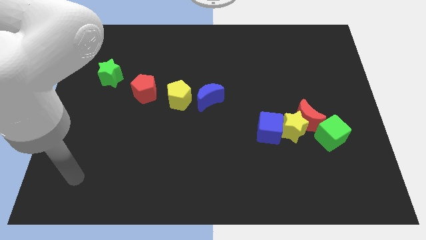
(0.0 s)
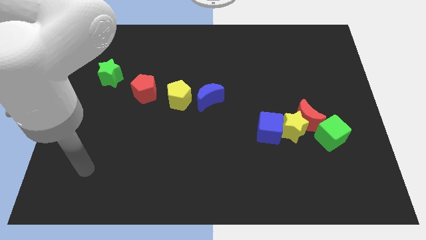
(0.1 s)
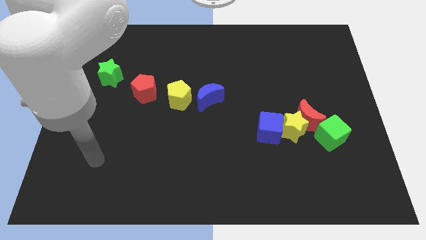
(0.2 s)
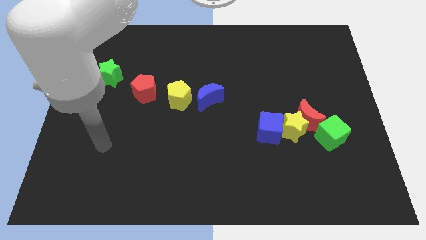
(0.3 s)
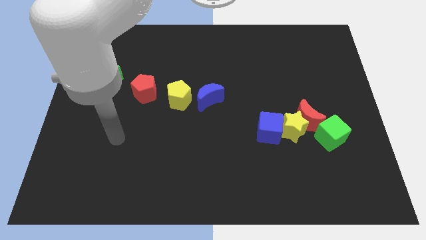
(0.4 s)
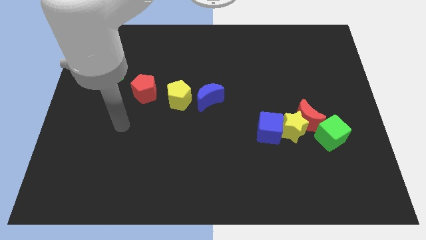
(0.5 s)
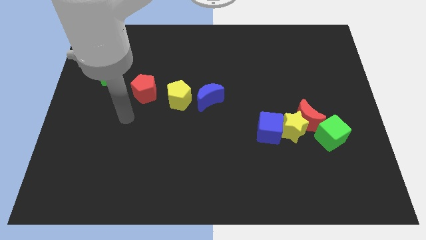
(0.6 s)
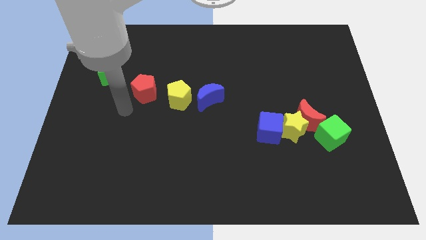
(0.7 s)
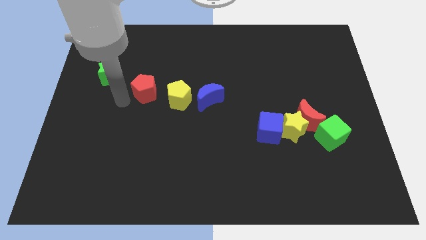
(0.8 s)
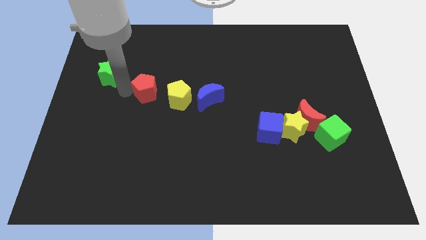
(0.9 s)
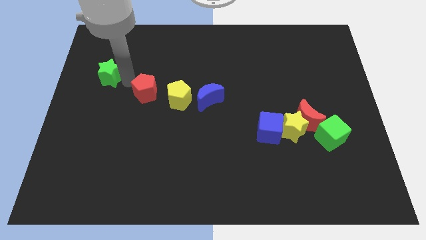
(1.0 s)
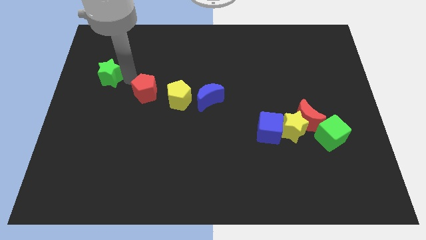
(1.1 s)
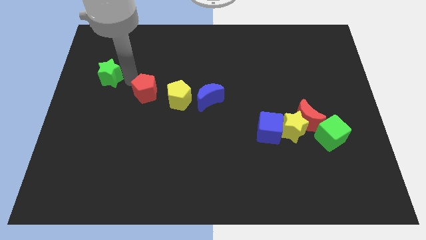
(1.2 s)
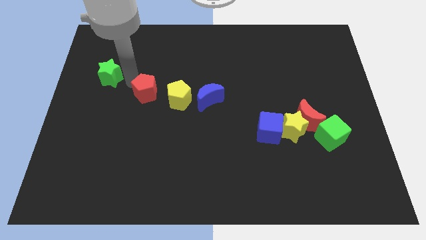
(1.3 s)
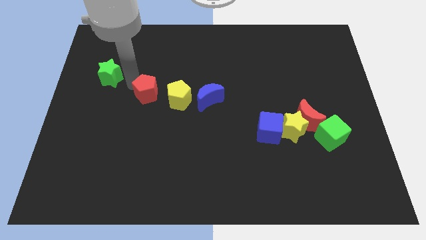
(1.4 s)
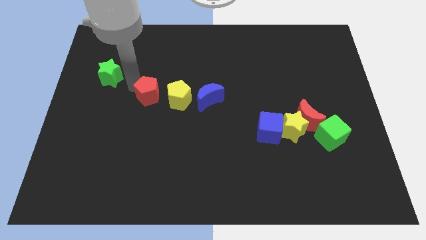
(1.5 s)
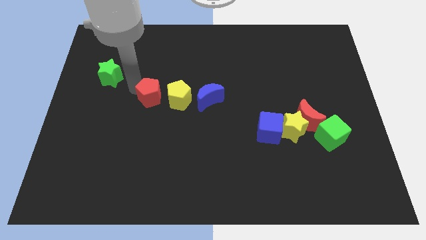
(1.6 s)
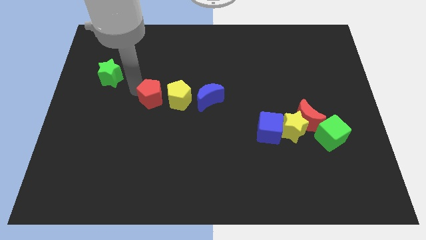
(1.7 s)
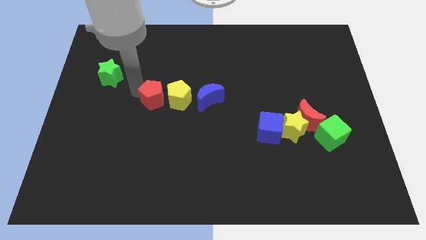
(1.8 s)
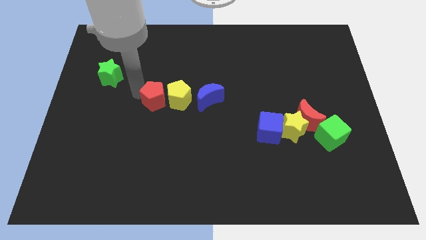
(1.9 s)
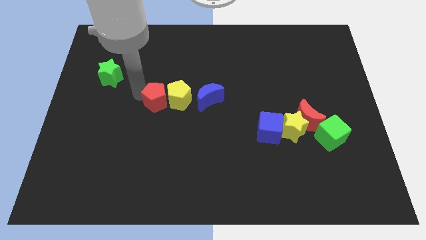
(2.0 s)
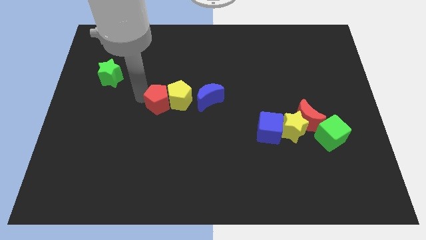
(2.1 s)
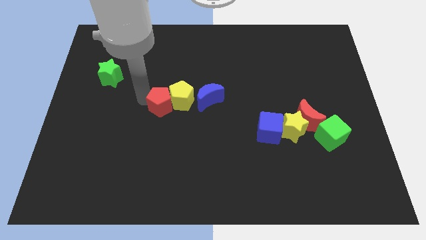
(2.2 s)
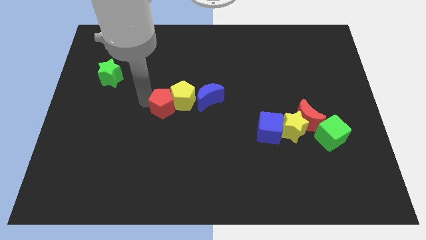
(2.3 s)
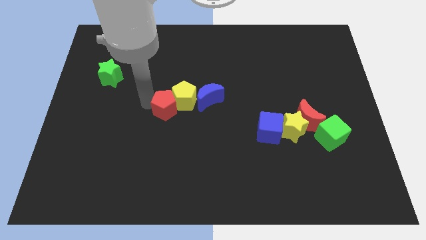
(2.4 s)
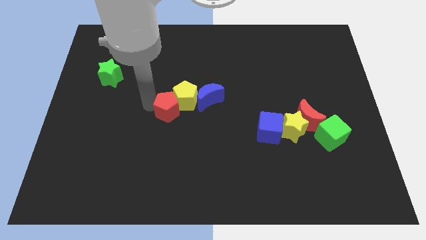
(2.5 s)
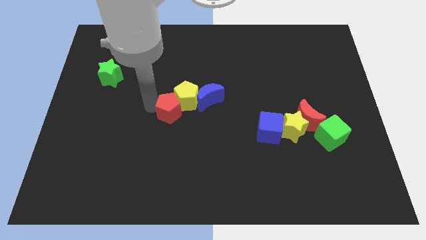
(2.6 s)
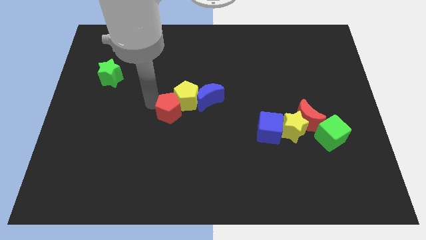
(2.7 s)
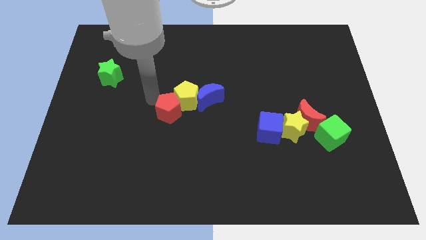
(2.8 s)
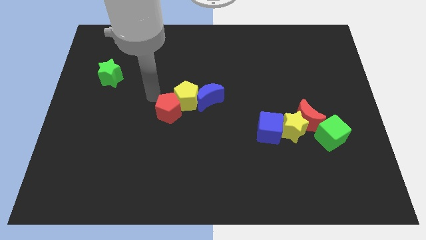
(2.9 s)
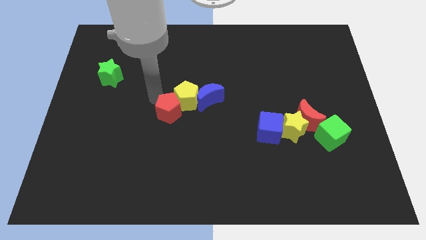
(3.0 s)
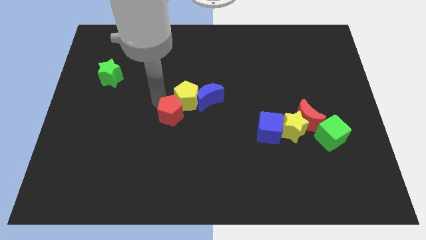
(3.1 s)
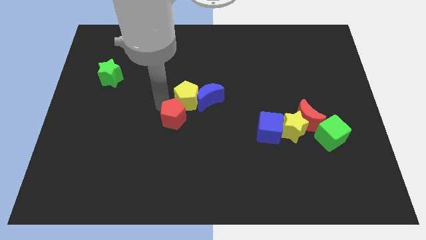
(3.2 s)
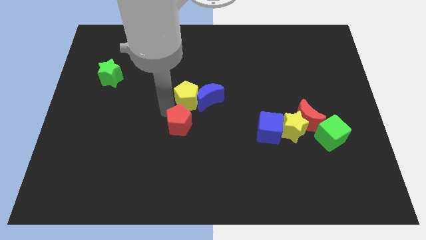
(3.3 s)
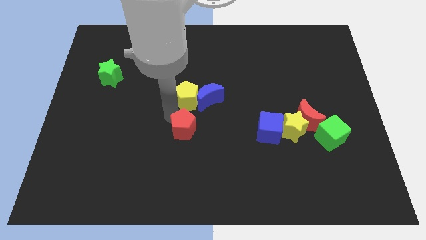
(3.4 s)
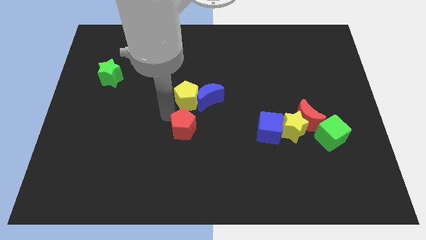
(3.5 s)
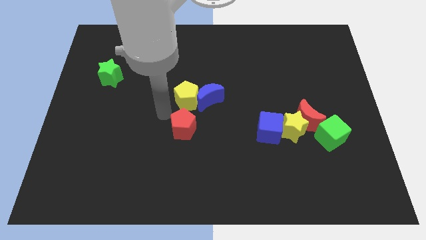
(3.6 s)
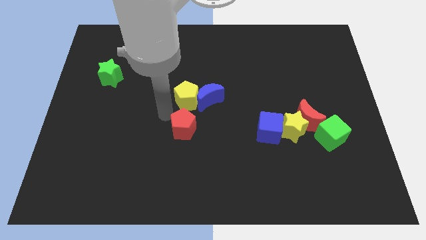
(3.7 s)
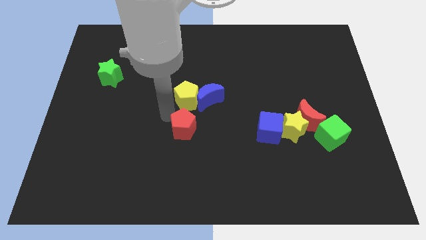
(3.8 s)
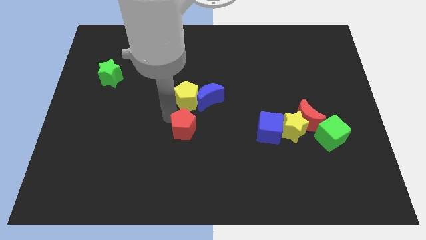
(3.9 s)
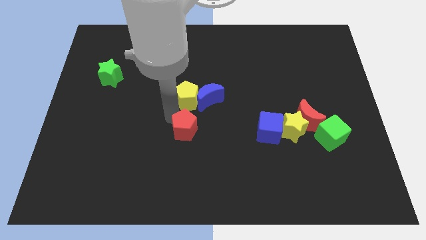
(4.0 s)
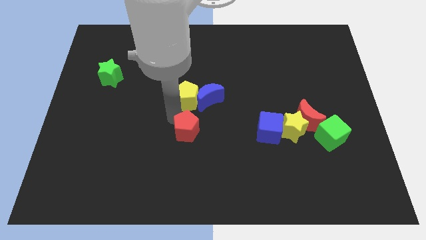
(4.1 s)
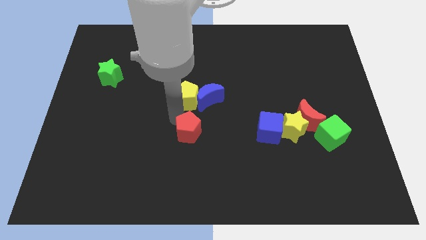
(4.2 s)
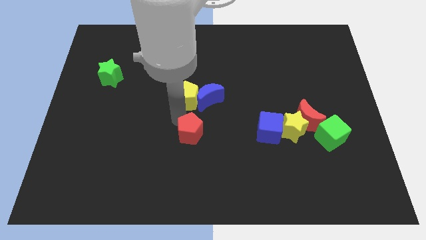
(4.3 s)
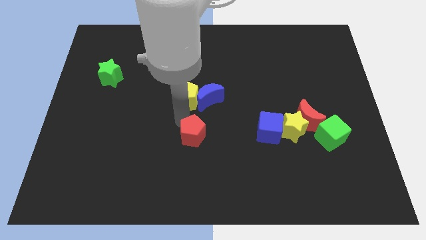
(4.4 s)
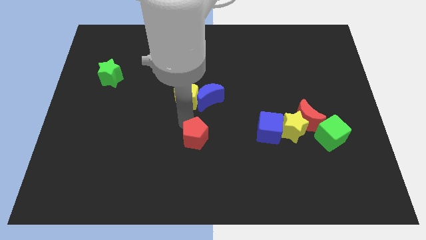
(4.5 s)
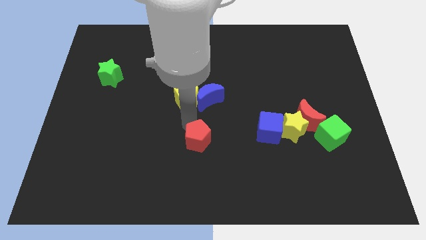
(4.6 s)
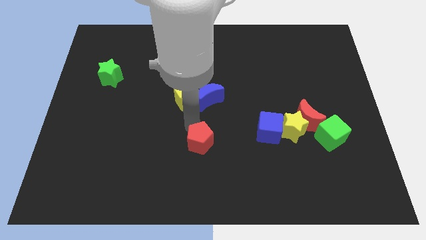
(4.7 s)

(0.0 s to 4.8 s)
move the red pentagon down and to the right diagonally

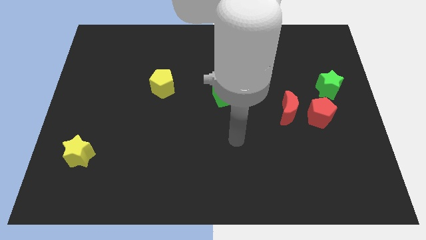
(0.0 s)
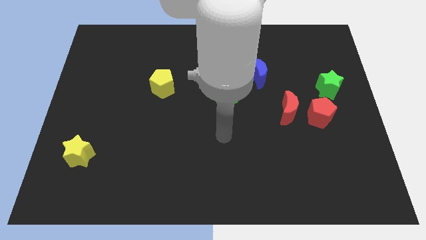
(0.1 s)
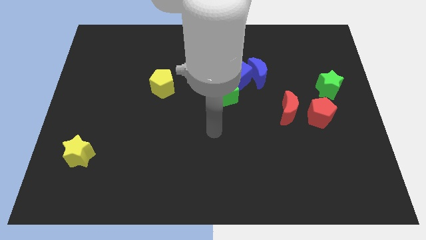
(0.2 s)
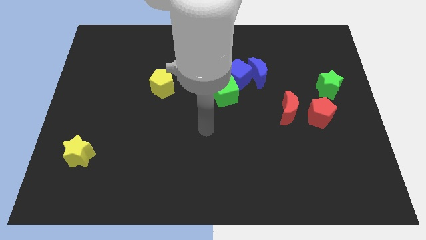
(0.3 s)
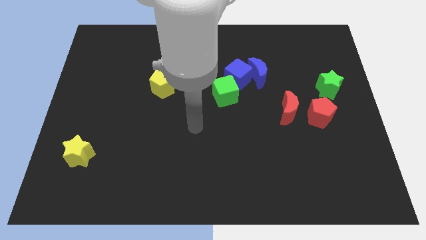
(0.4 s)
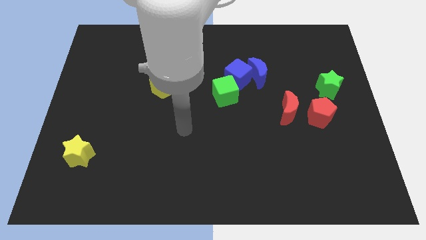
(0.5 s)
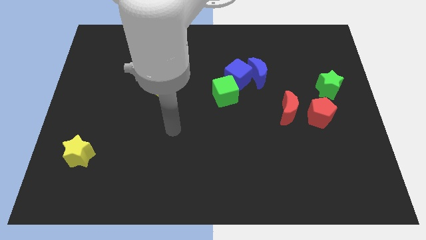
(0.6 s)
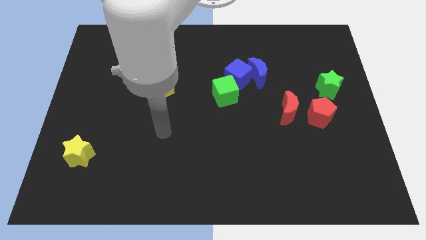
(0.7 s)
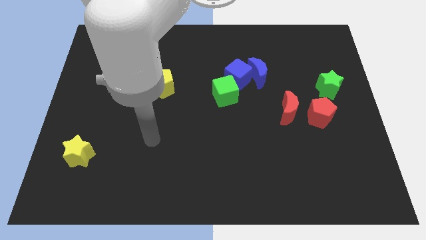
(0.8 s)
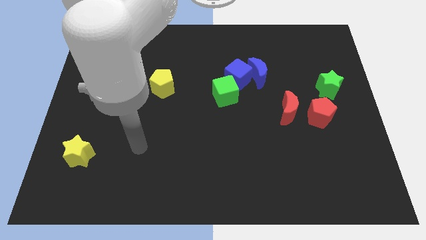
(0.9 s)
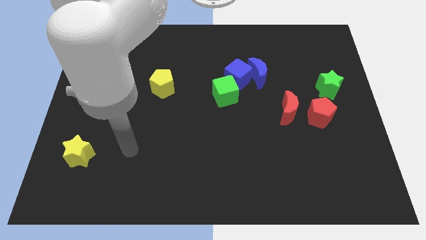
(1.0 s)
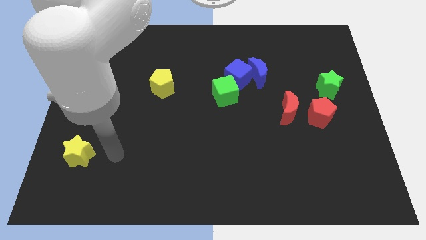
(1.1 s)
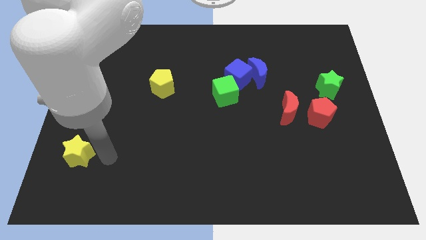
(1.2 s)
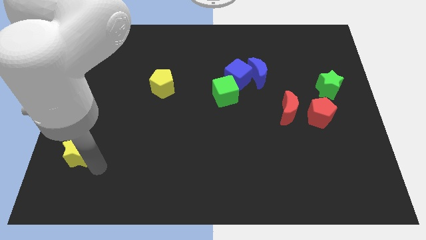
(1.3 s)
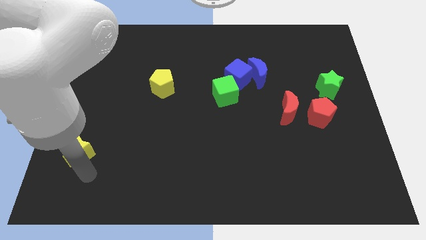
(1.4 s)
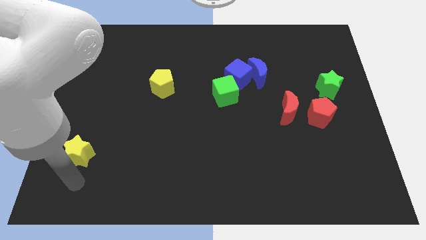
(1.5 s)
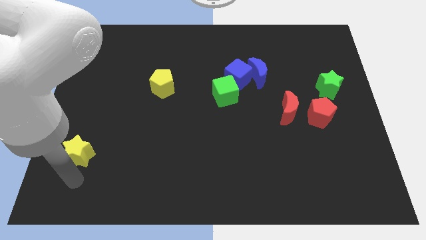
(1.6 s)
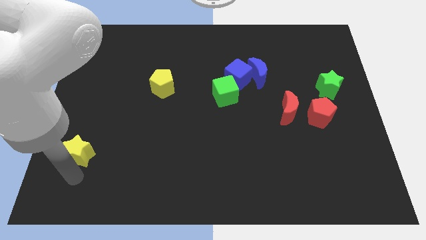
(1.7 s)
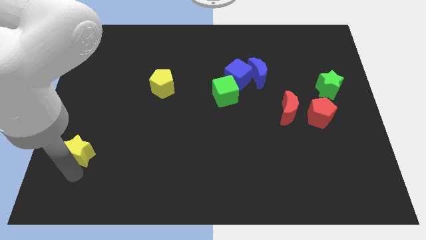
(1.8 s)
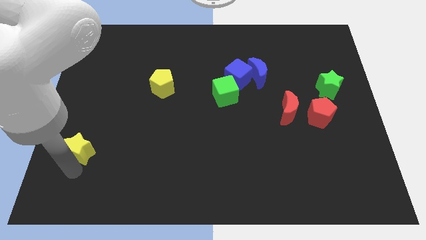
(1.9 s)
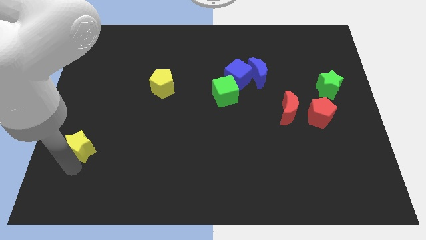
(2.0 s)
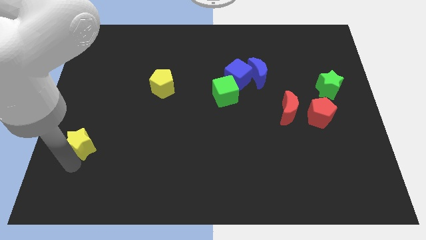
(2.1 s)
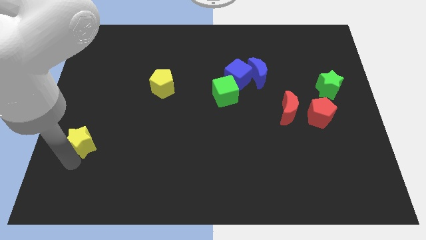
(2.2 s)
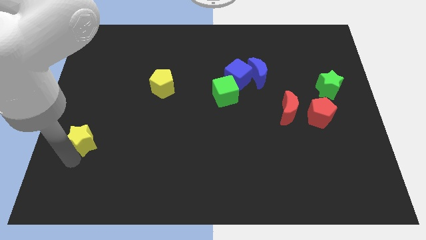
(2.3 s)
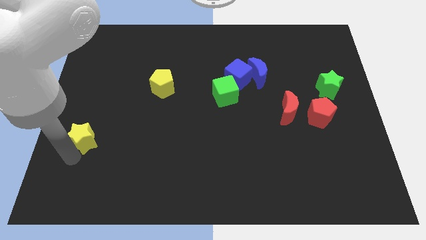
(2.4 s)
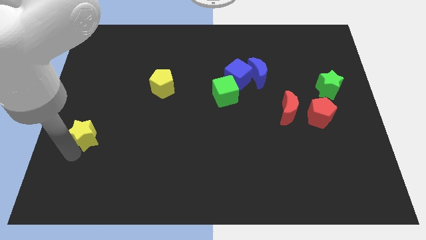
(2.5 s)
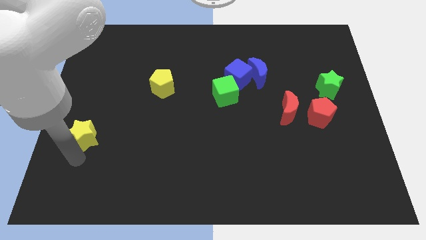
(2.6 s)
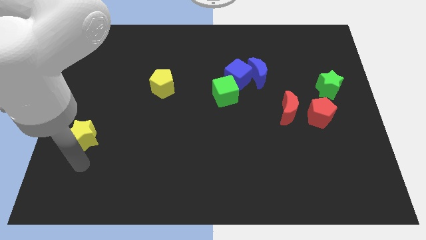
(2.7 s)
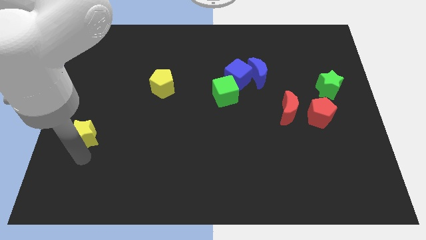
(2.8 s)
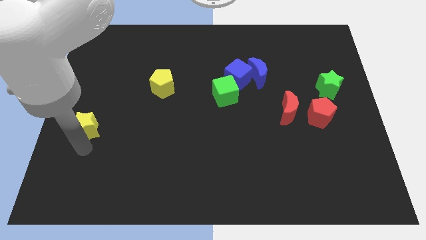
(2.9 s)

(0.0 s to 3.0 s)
slightly push the yellow star up

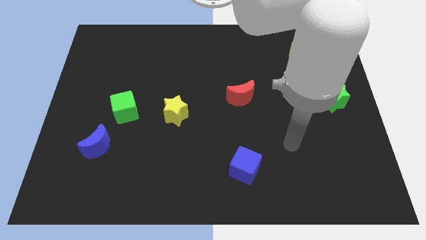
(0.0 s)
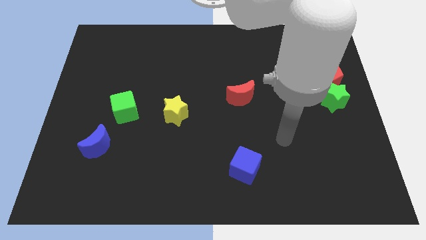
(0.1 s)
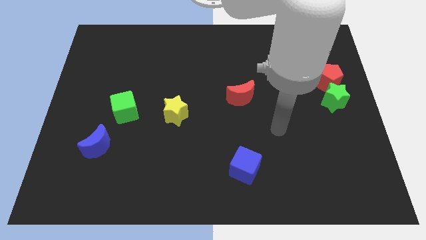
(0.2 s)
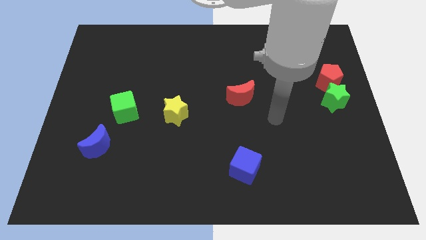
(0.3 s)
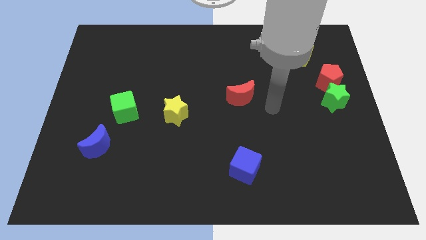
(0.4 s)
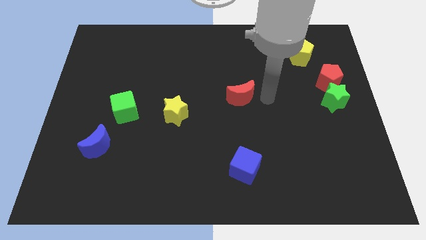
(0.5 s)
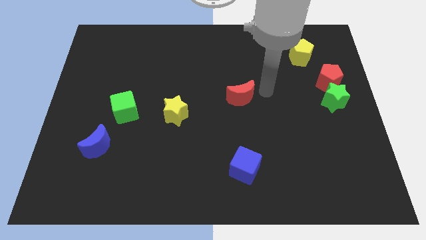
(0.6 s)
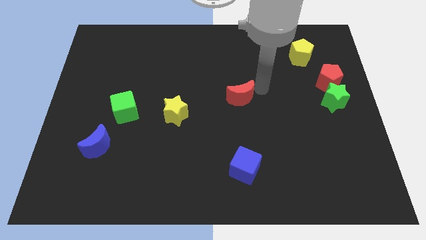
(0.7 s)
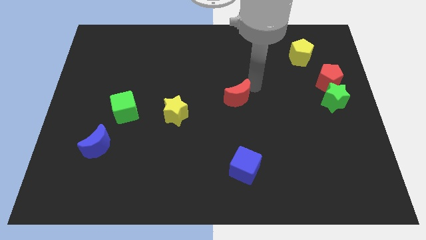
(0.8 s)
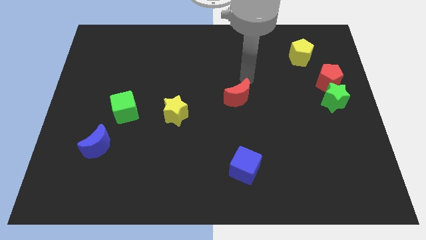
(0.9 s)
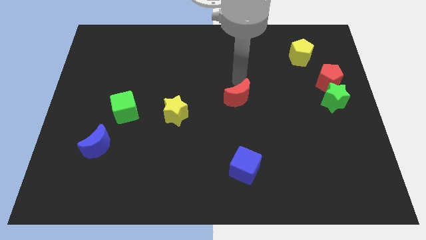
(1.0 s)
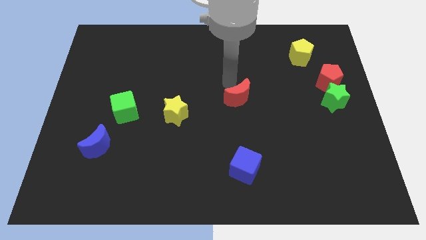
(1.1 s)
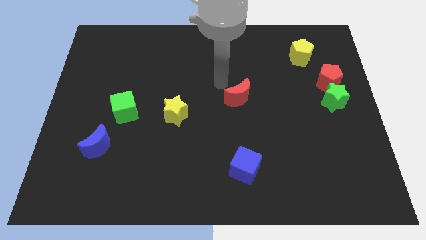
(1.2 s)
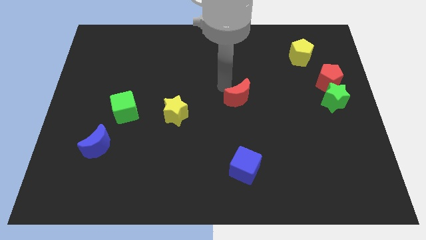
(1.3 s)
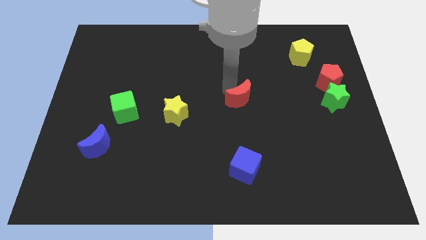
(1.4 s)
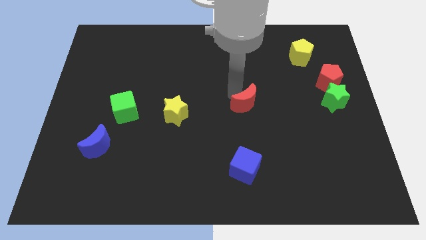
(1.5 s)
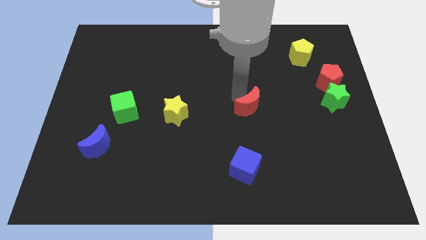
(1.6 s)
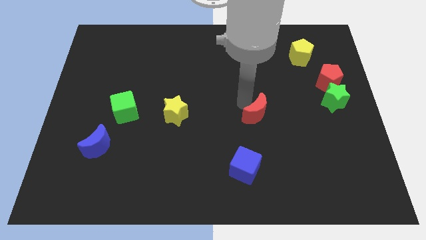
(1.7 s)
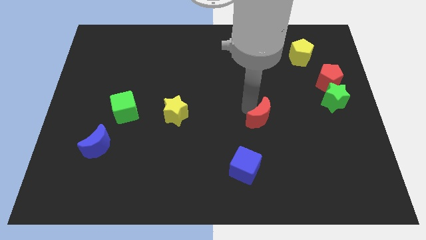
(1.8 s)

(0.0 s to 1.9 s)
slide the red moon down and then right slightly
